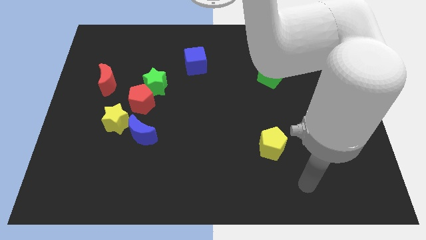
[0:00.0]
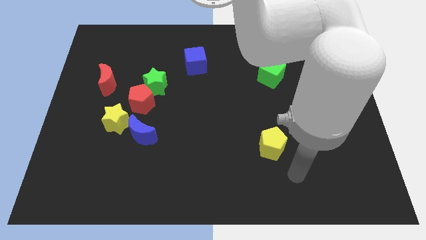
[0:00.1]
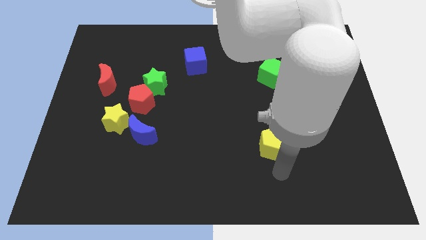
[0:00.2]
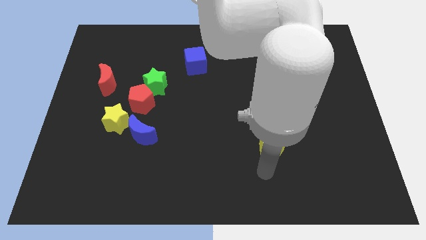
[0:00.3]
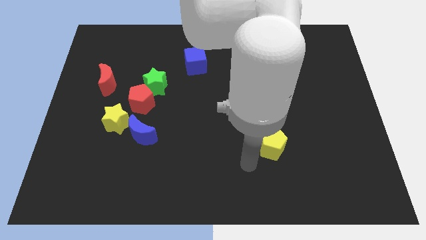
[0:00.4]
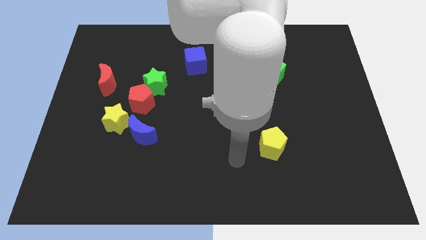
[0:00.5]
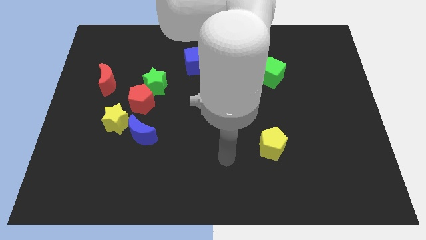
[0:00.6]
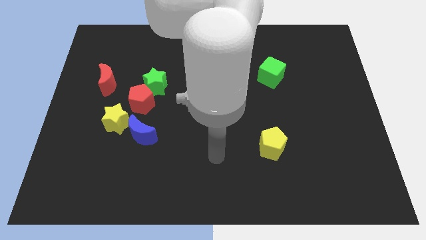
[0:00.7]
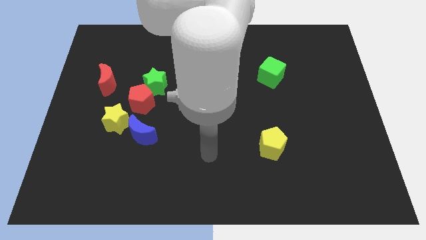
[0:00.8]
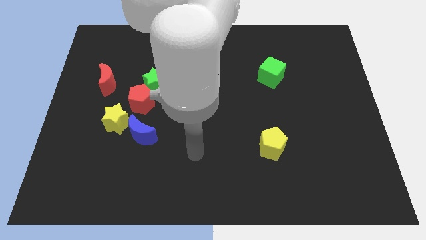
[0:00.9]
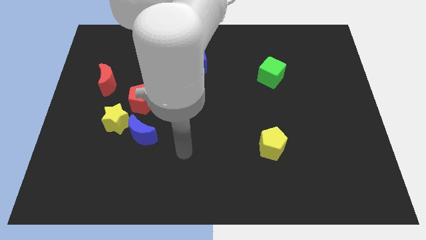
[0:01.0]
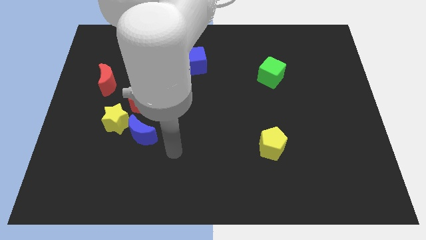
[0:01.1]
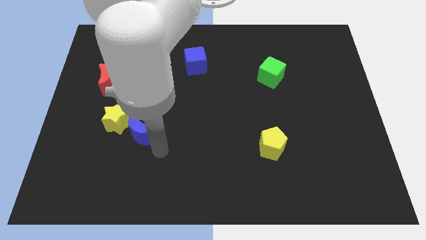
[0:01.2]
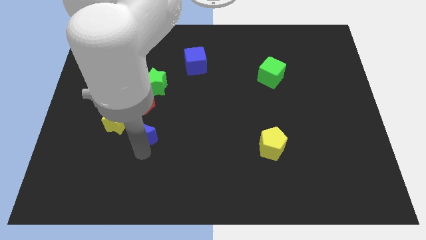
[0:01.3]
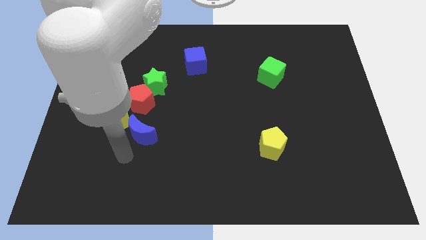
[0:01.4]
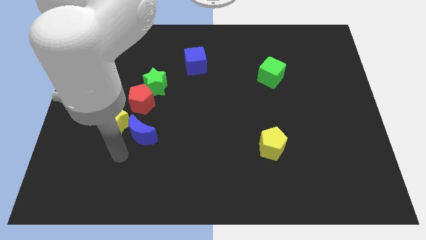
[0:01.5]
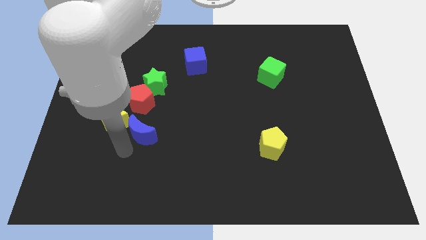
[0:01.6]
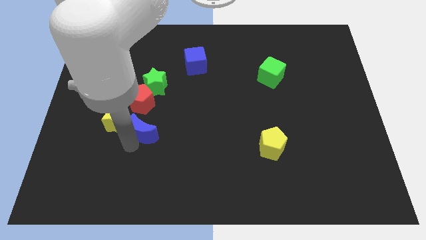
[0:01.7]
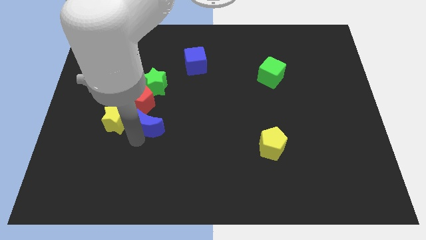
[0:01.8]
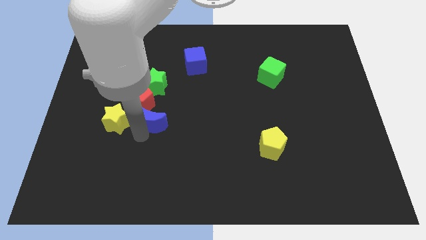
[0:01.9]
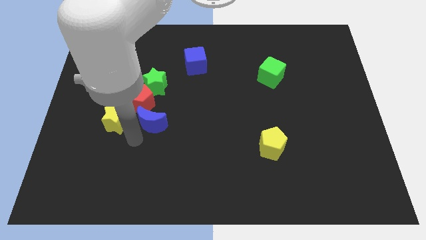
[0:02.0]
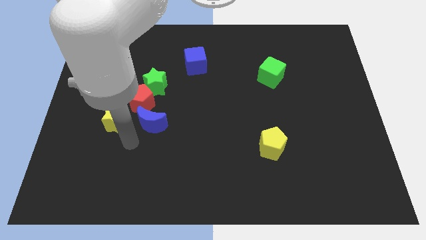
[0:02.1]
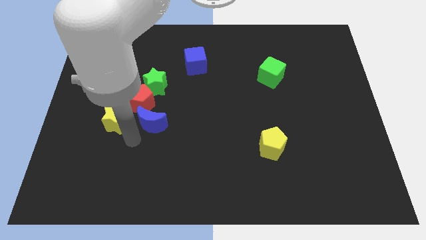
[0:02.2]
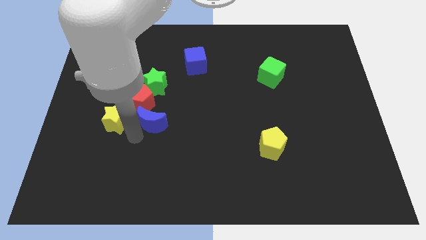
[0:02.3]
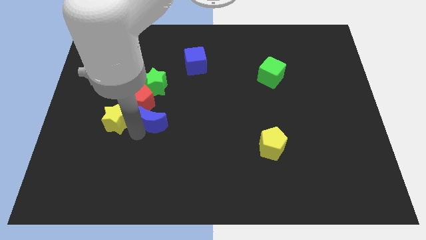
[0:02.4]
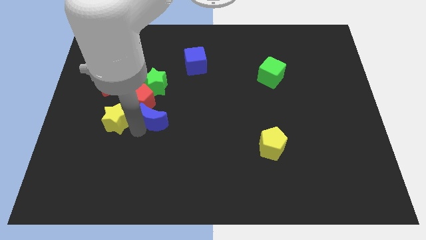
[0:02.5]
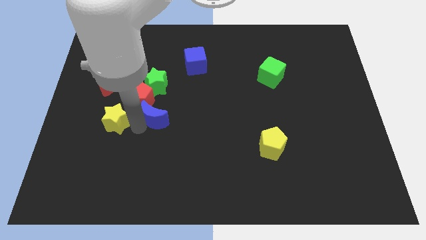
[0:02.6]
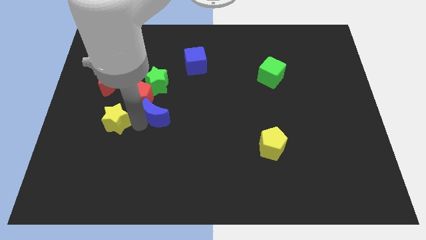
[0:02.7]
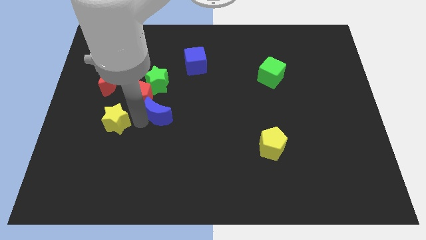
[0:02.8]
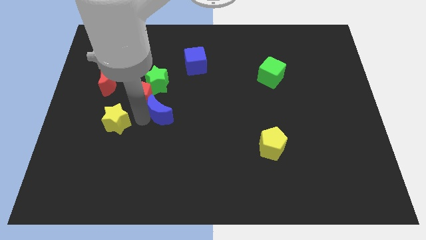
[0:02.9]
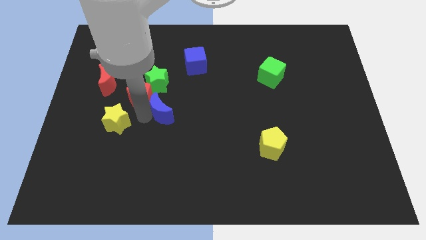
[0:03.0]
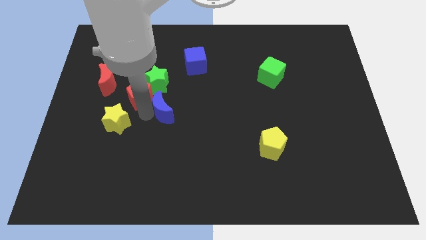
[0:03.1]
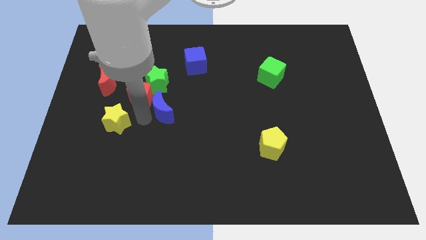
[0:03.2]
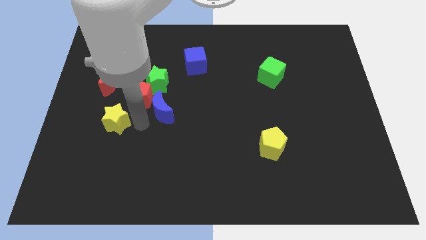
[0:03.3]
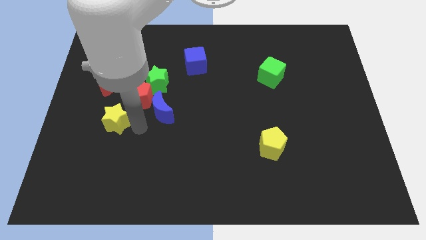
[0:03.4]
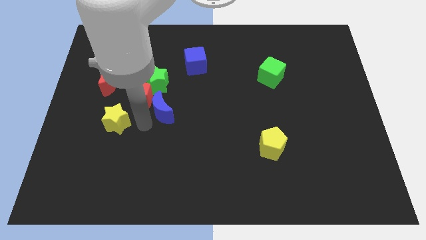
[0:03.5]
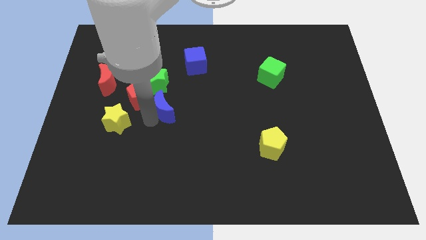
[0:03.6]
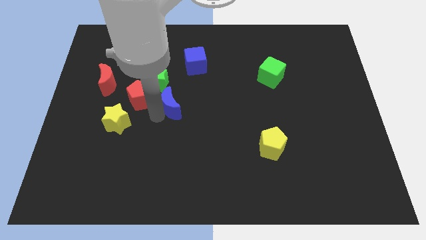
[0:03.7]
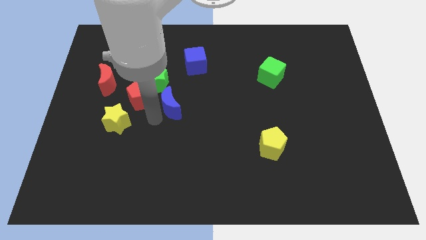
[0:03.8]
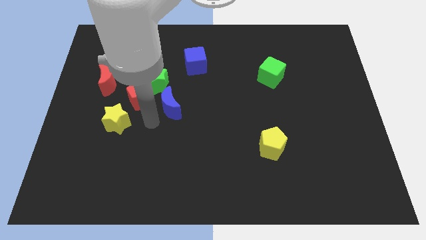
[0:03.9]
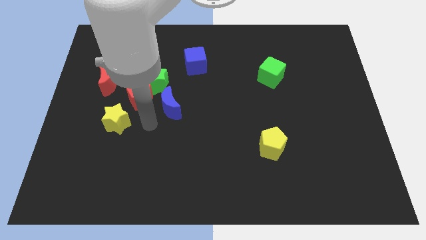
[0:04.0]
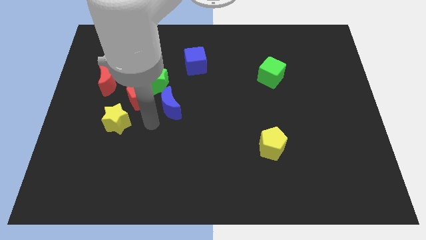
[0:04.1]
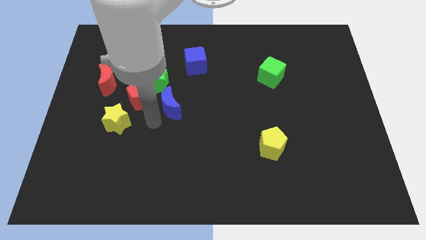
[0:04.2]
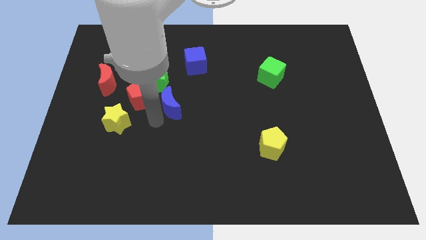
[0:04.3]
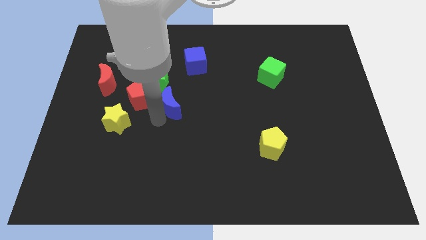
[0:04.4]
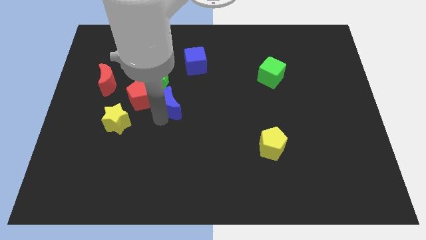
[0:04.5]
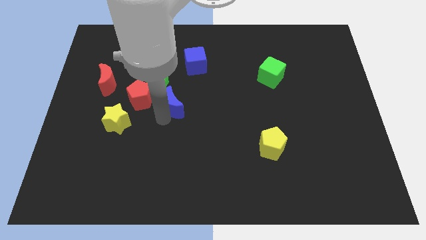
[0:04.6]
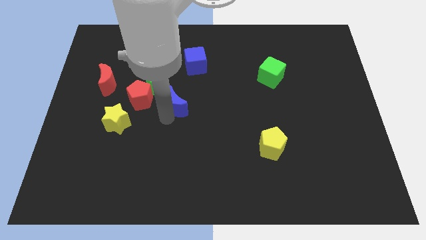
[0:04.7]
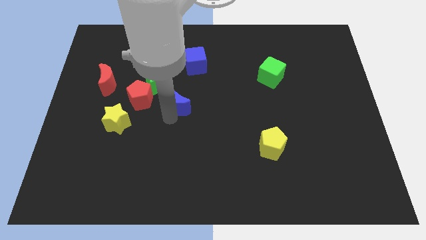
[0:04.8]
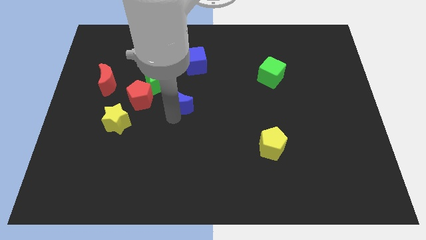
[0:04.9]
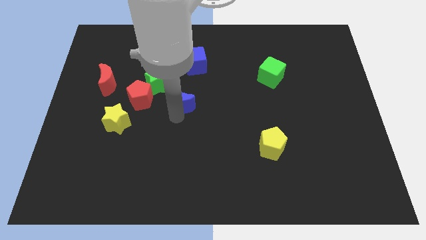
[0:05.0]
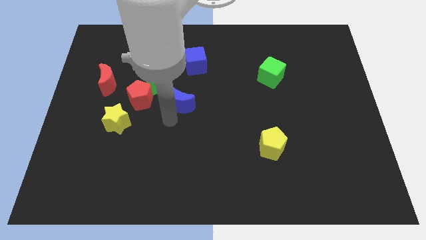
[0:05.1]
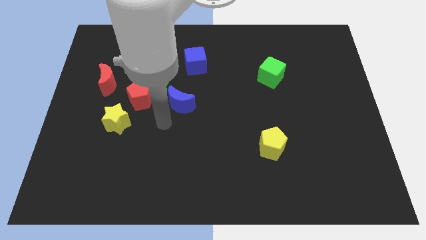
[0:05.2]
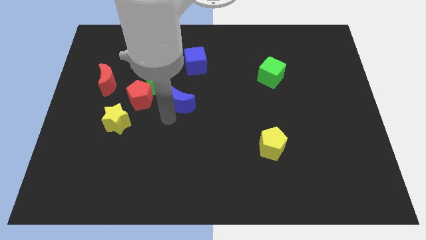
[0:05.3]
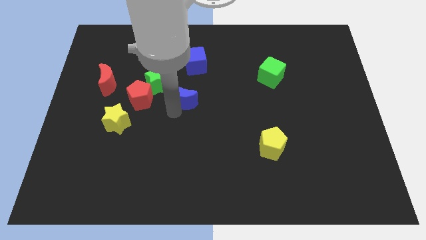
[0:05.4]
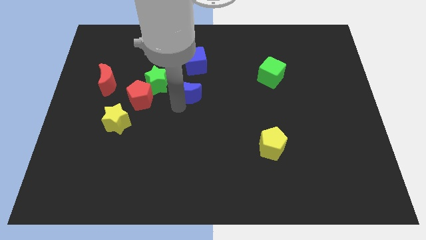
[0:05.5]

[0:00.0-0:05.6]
move the blue moon to the right of the green star

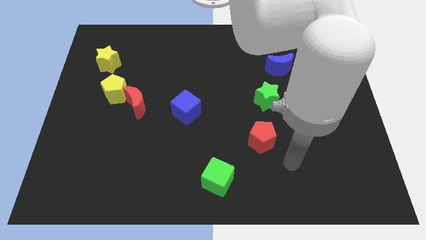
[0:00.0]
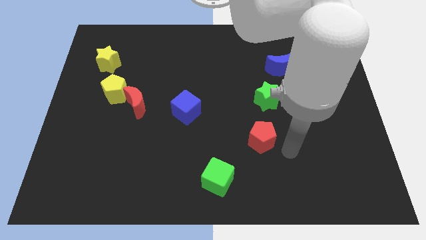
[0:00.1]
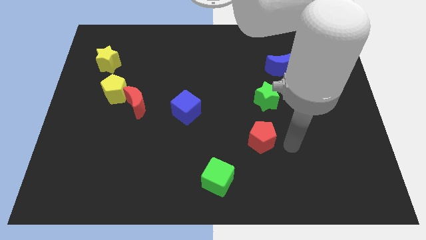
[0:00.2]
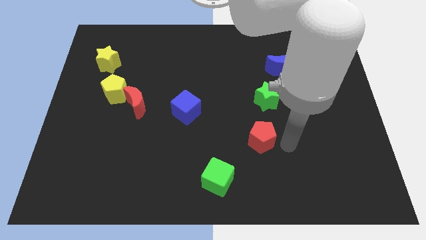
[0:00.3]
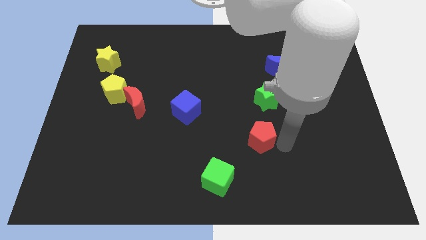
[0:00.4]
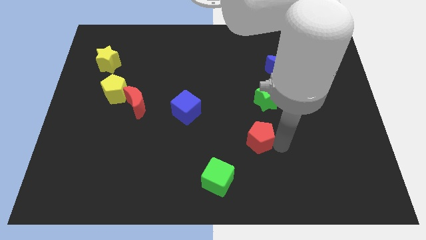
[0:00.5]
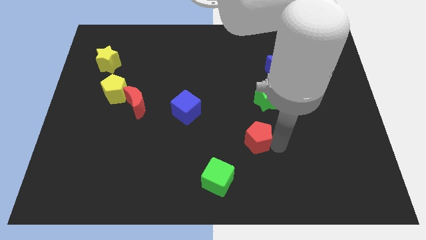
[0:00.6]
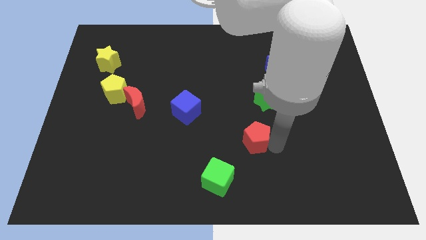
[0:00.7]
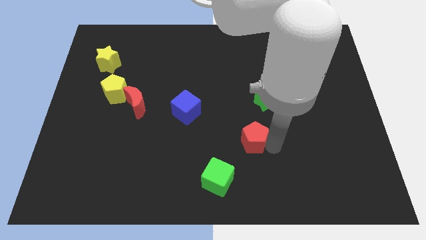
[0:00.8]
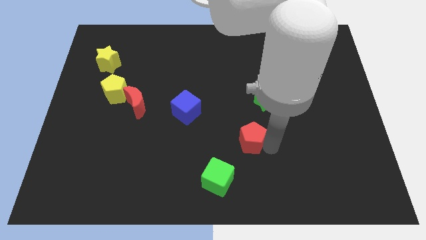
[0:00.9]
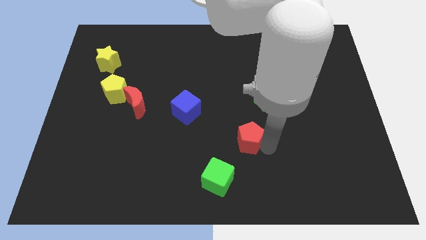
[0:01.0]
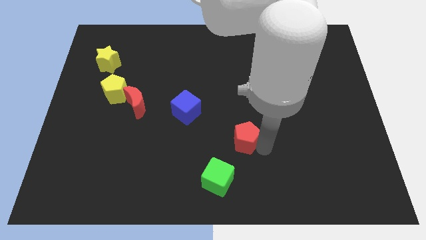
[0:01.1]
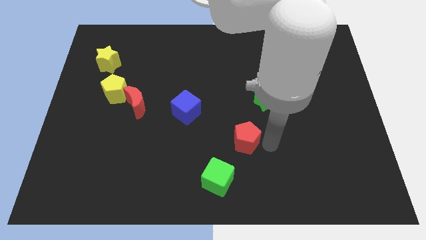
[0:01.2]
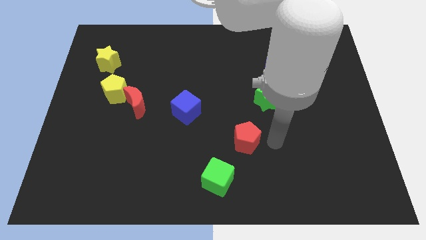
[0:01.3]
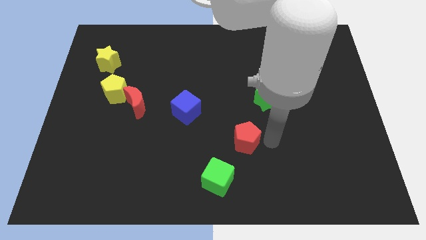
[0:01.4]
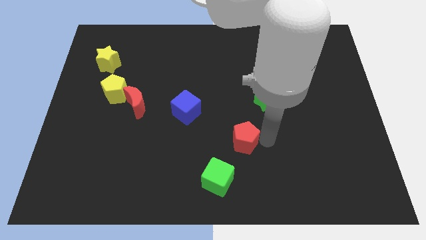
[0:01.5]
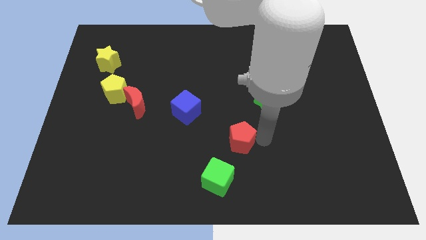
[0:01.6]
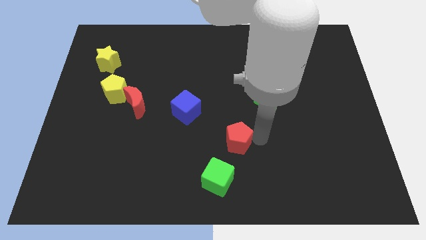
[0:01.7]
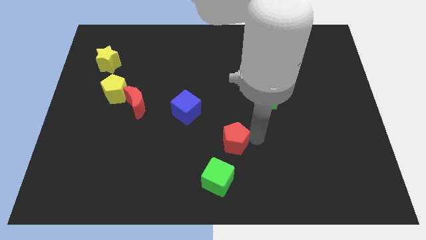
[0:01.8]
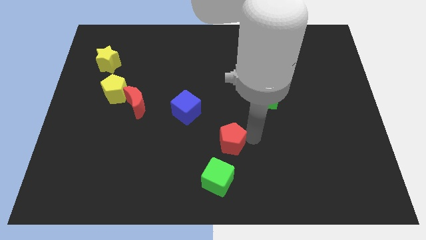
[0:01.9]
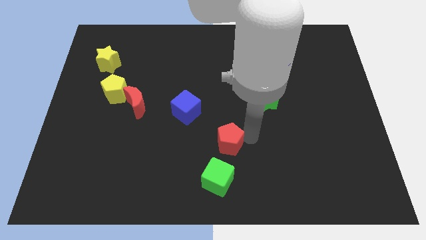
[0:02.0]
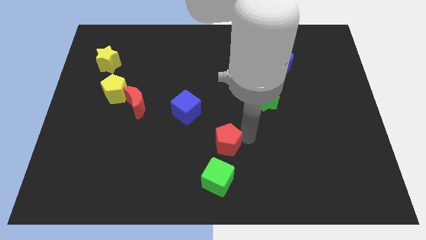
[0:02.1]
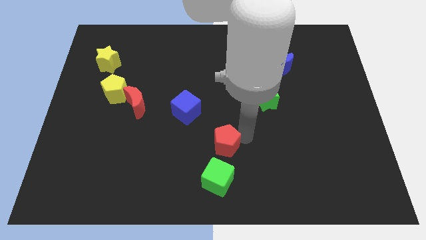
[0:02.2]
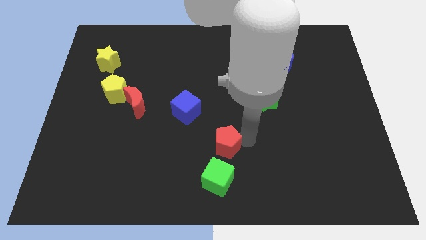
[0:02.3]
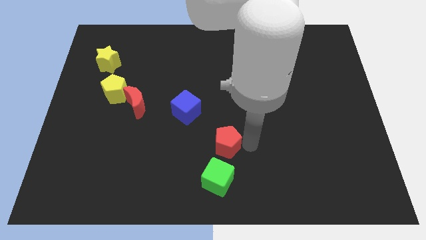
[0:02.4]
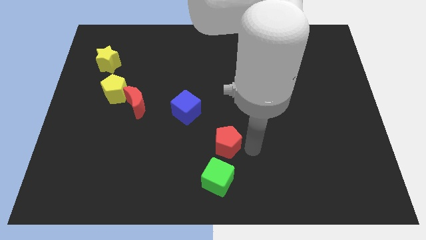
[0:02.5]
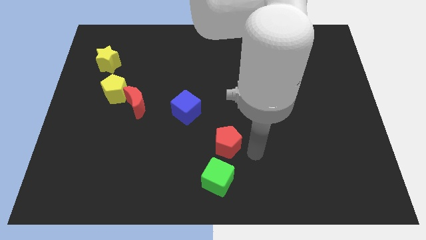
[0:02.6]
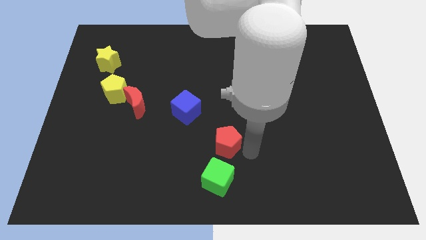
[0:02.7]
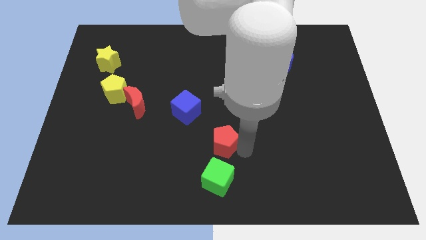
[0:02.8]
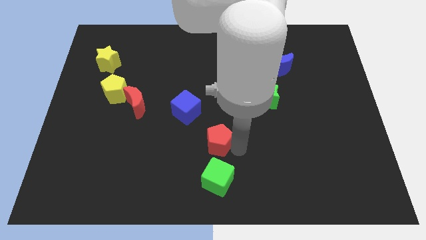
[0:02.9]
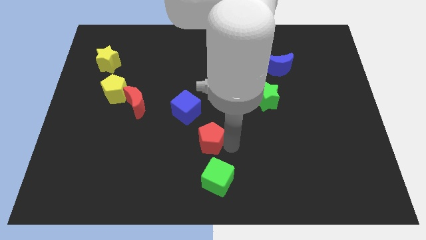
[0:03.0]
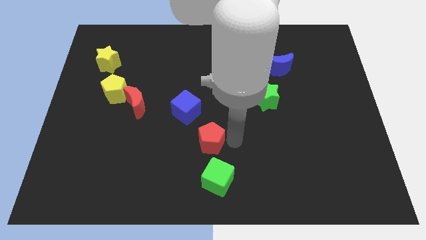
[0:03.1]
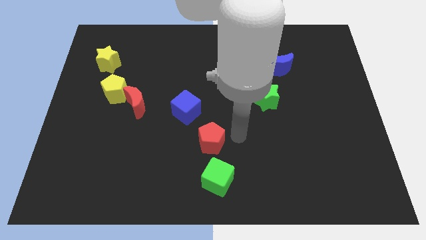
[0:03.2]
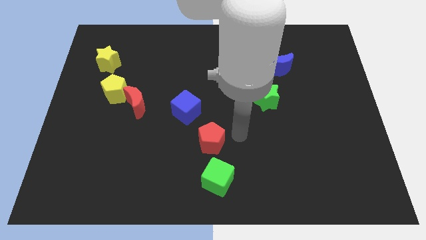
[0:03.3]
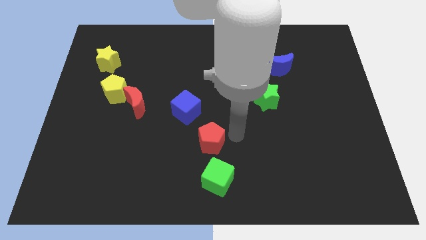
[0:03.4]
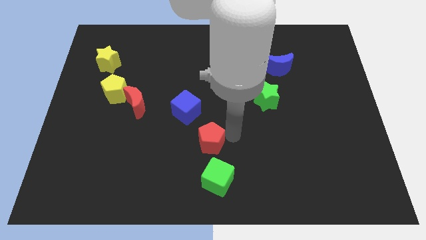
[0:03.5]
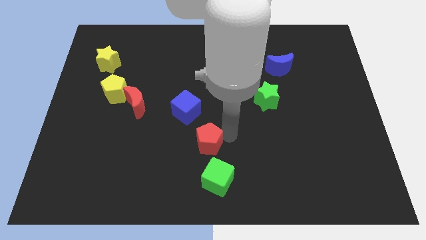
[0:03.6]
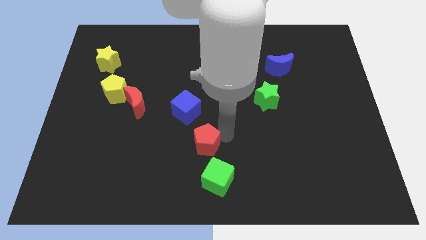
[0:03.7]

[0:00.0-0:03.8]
push the red pentagon to the bottom side of the blue cube
